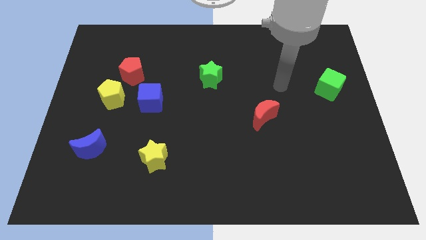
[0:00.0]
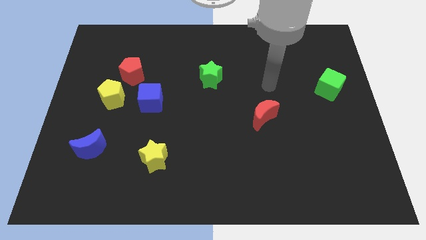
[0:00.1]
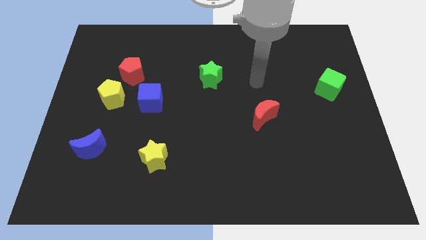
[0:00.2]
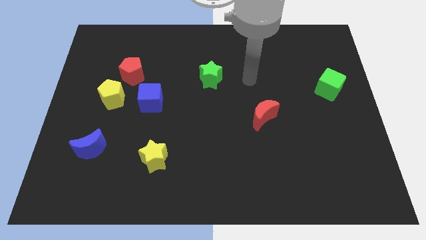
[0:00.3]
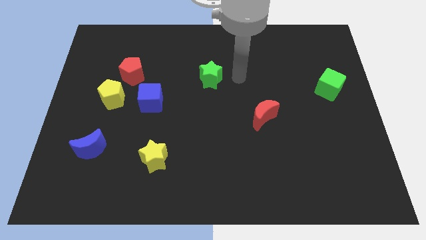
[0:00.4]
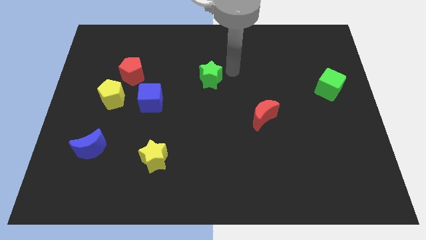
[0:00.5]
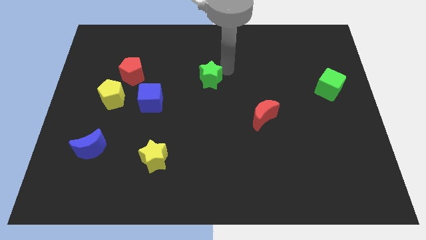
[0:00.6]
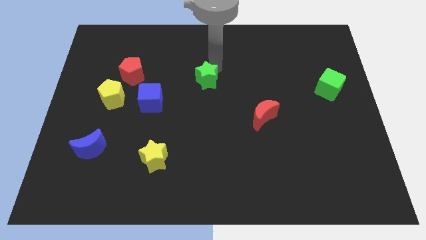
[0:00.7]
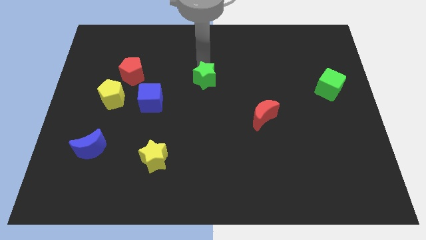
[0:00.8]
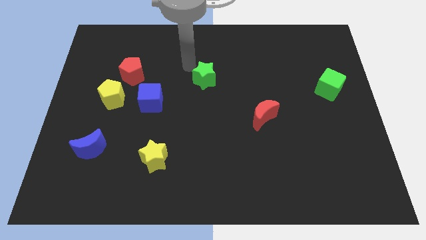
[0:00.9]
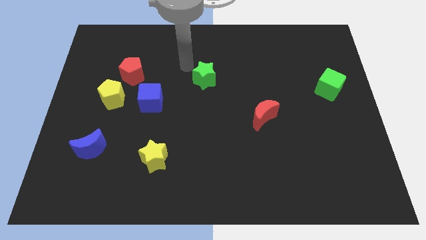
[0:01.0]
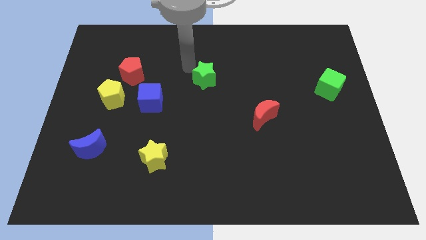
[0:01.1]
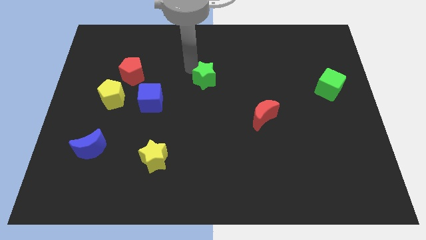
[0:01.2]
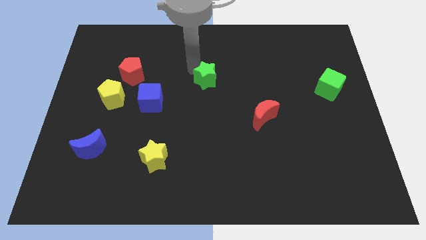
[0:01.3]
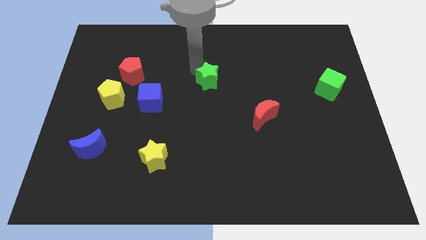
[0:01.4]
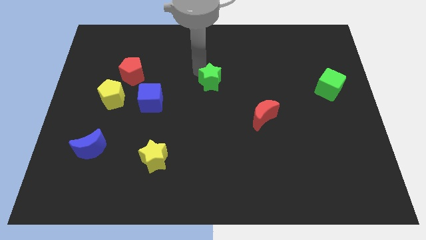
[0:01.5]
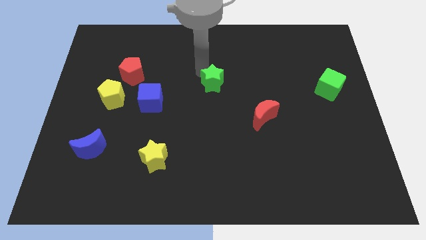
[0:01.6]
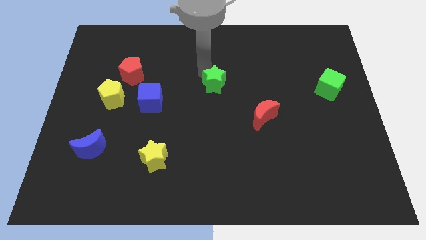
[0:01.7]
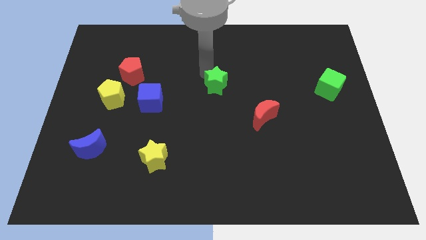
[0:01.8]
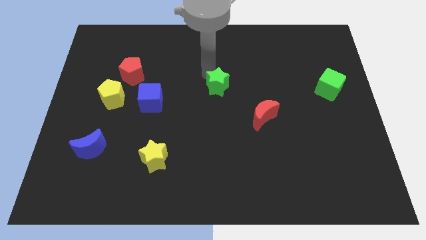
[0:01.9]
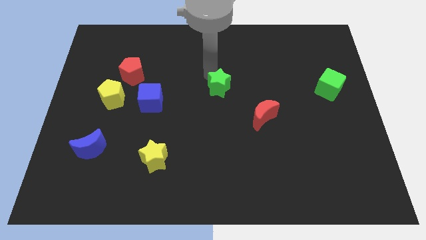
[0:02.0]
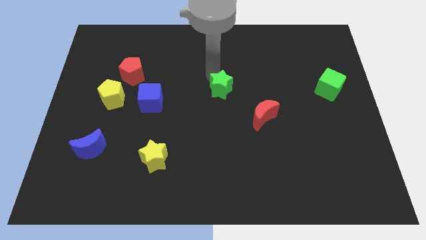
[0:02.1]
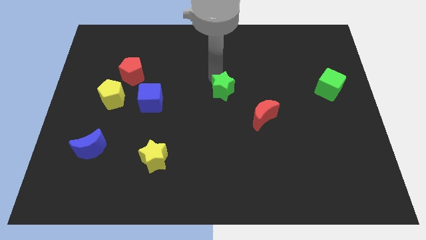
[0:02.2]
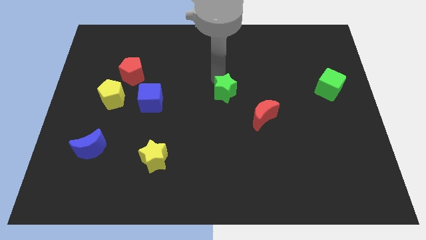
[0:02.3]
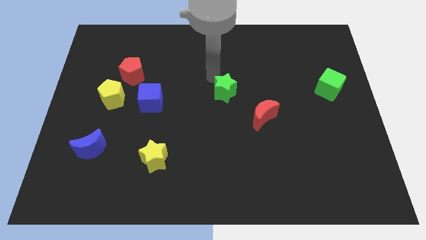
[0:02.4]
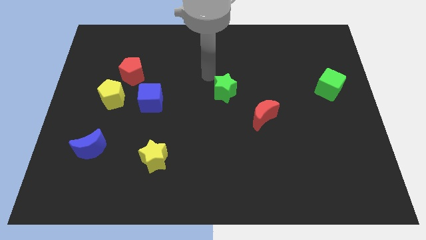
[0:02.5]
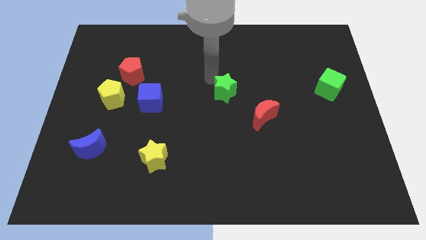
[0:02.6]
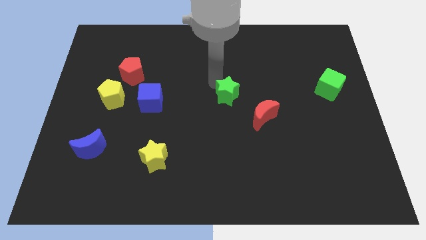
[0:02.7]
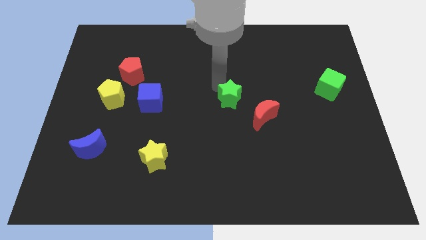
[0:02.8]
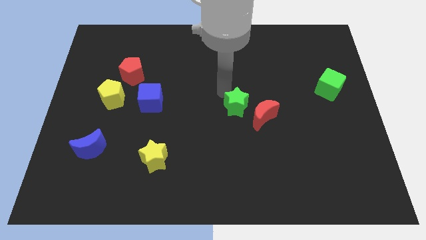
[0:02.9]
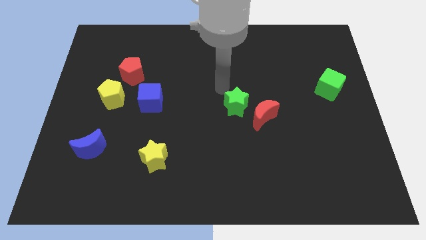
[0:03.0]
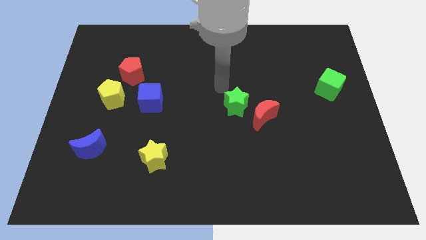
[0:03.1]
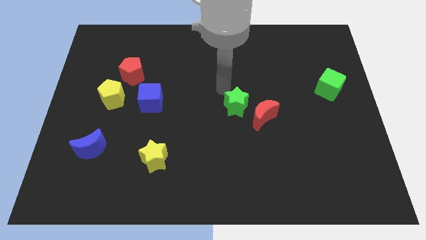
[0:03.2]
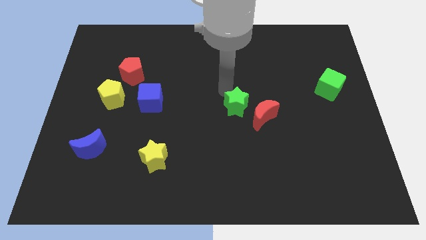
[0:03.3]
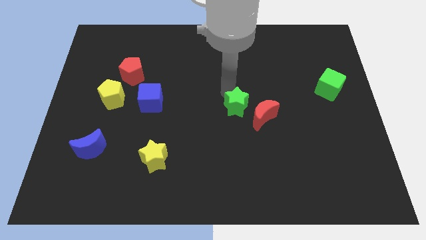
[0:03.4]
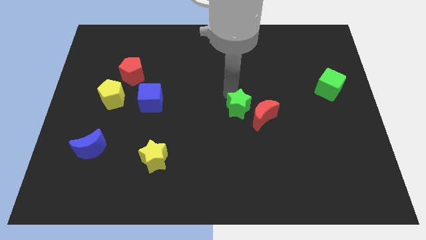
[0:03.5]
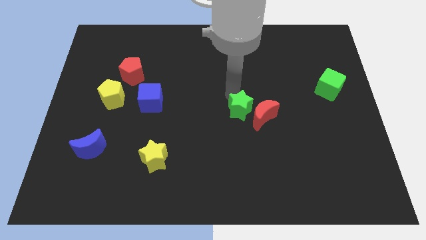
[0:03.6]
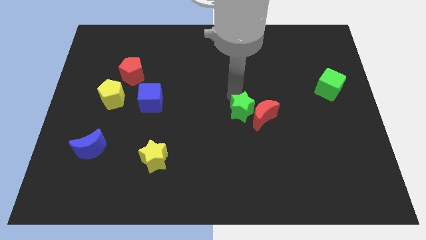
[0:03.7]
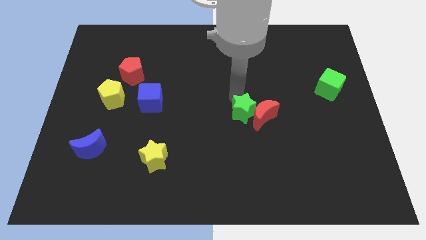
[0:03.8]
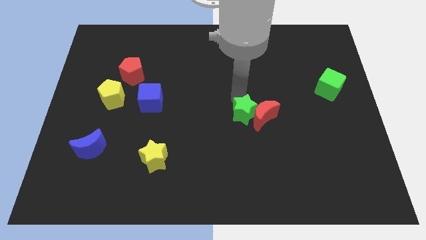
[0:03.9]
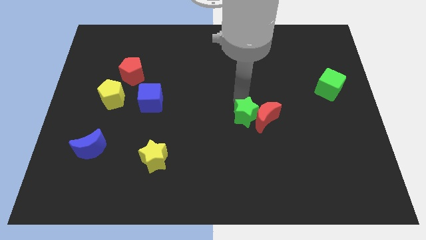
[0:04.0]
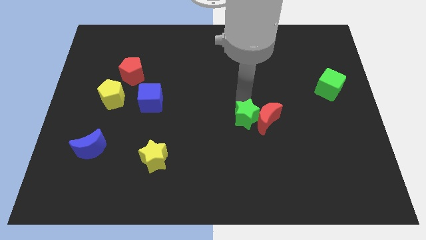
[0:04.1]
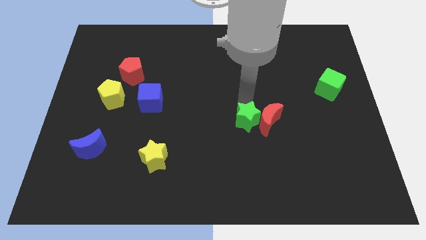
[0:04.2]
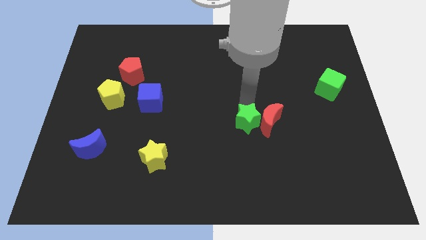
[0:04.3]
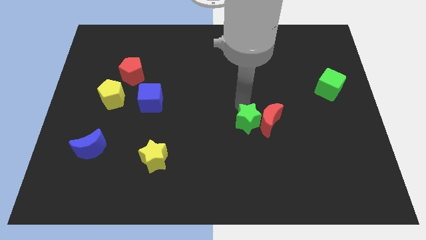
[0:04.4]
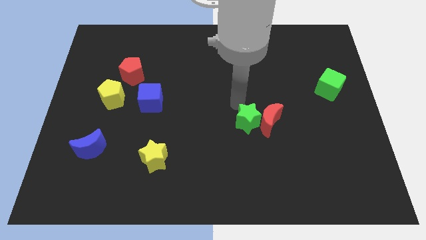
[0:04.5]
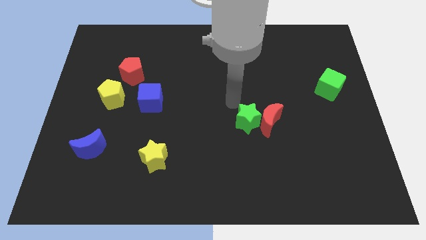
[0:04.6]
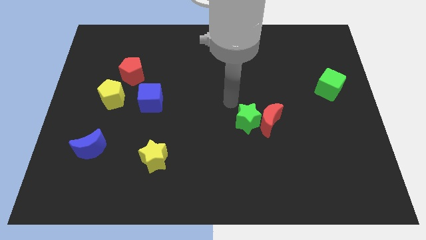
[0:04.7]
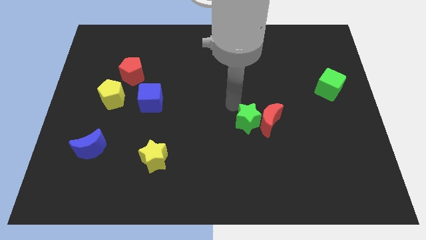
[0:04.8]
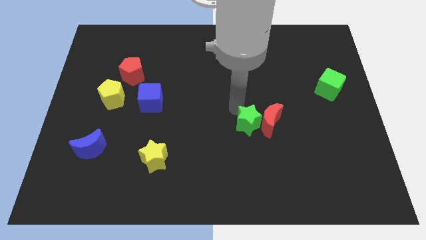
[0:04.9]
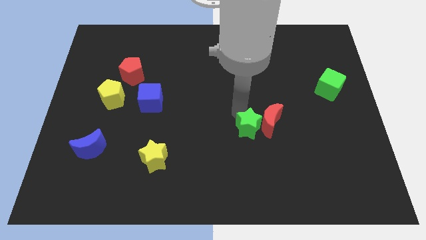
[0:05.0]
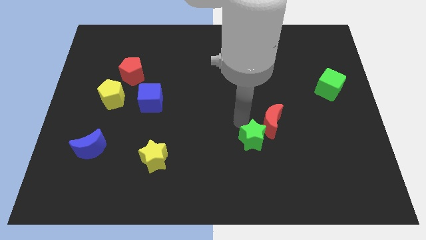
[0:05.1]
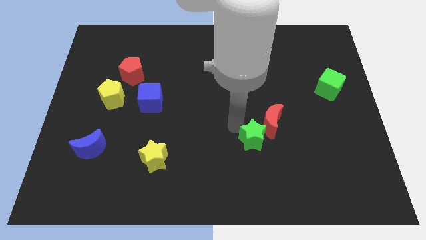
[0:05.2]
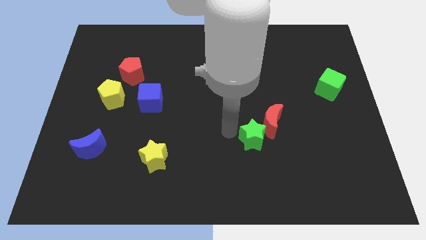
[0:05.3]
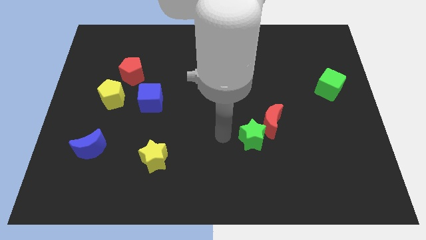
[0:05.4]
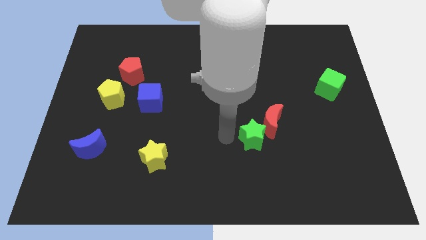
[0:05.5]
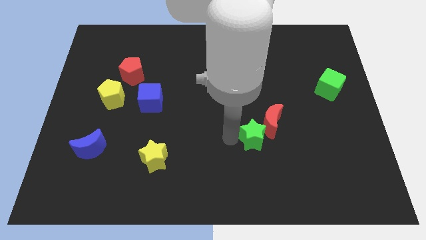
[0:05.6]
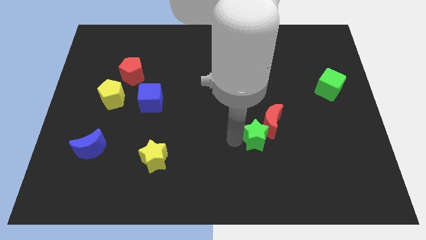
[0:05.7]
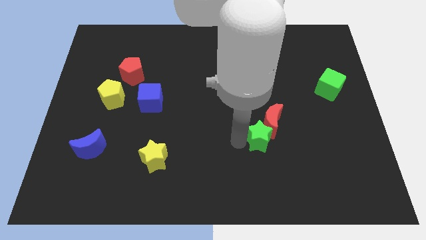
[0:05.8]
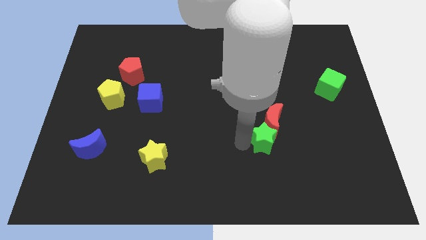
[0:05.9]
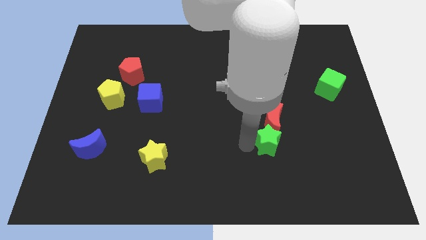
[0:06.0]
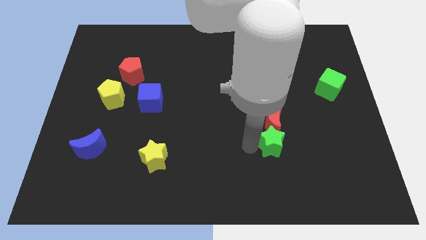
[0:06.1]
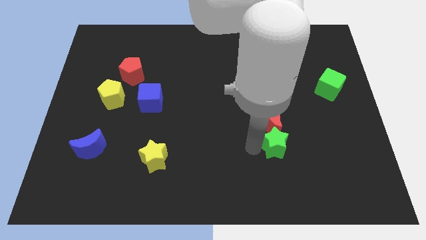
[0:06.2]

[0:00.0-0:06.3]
move the green star to the bottom right side of the red moon

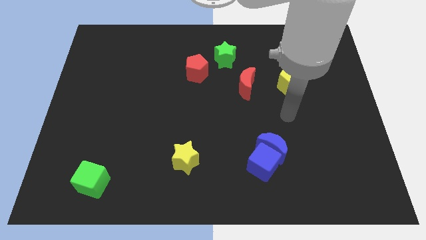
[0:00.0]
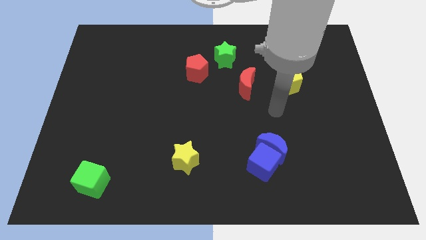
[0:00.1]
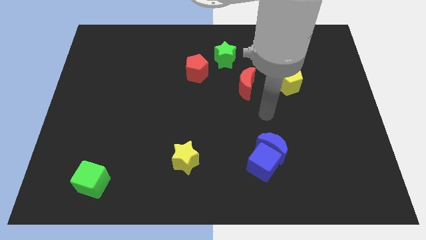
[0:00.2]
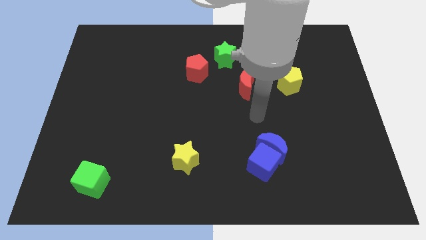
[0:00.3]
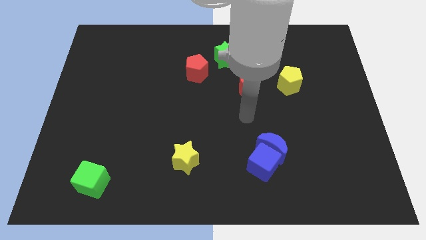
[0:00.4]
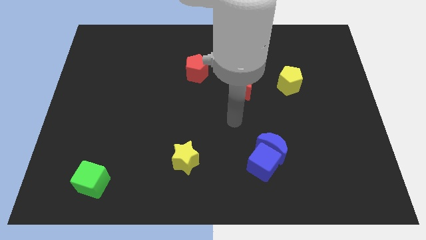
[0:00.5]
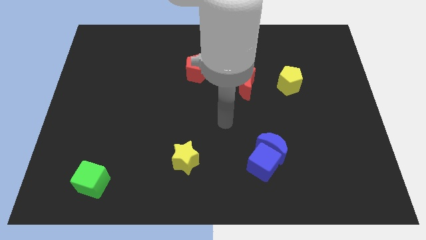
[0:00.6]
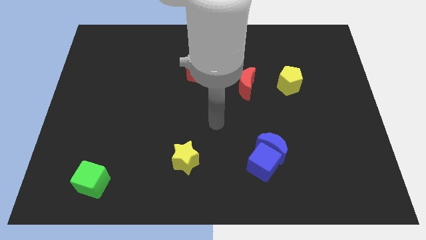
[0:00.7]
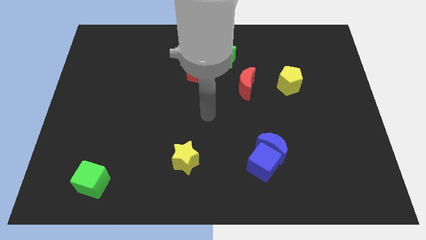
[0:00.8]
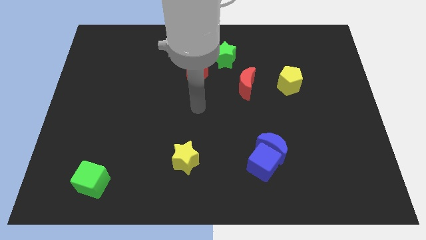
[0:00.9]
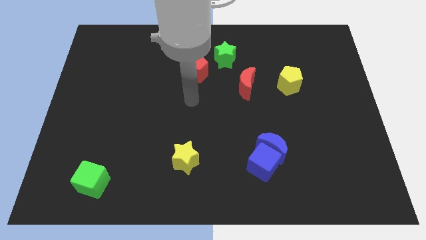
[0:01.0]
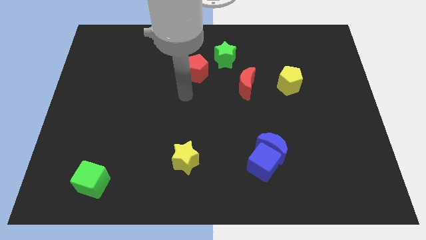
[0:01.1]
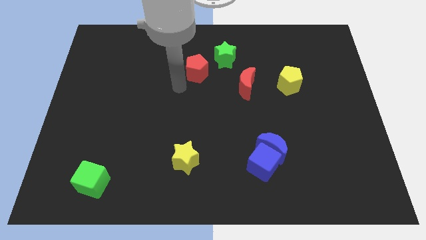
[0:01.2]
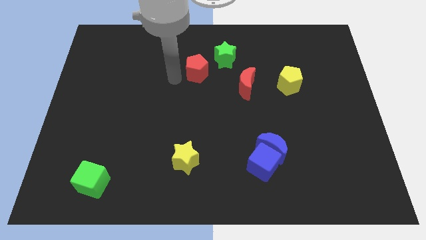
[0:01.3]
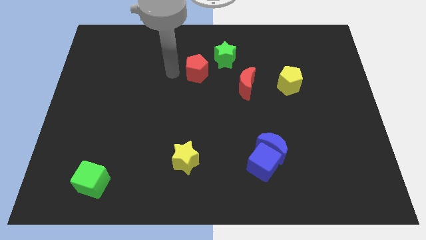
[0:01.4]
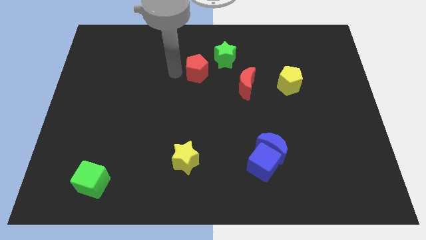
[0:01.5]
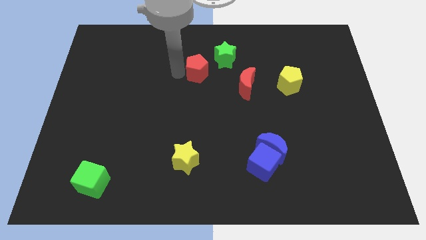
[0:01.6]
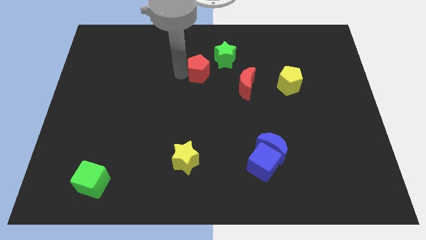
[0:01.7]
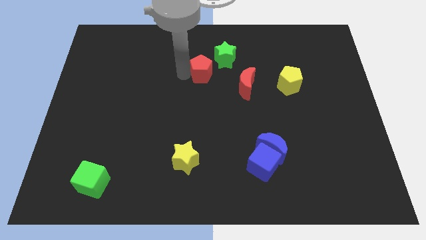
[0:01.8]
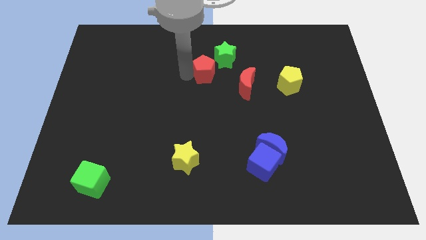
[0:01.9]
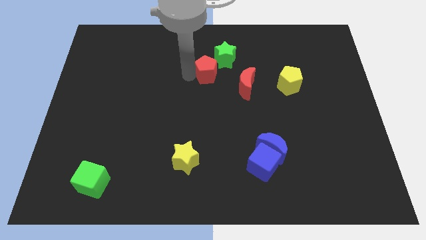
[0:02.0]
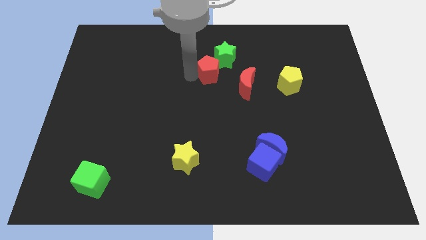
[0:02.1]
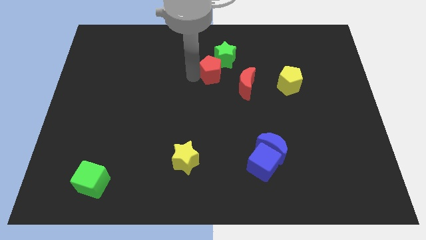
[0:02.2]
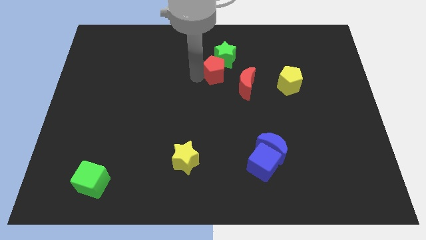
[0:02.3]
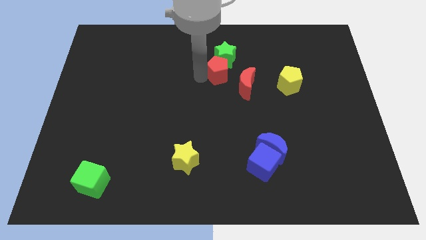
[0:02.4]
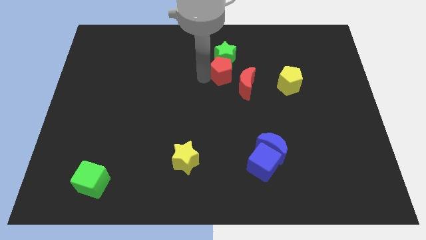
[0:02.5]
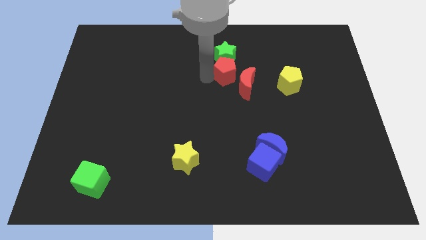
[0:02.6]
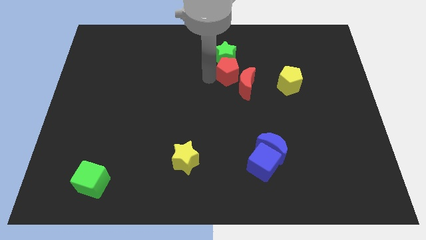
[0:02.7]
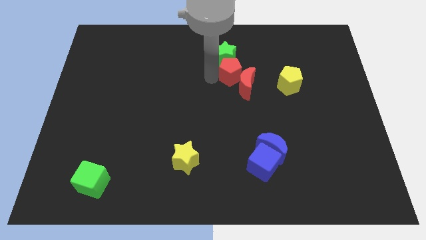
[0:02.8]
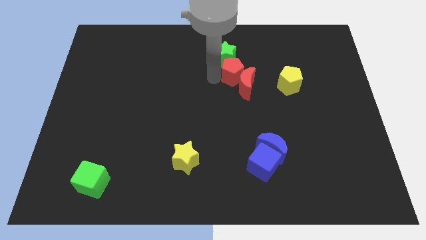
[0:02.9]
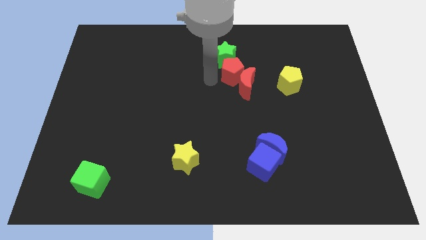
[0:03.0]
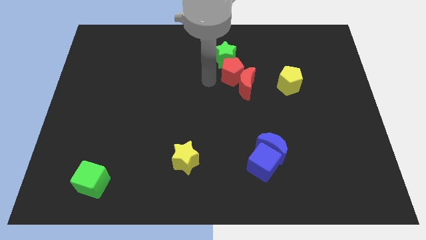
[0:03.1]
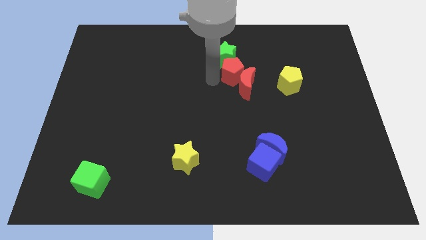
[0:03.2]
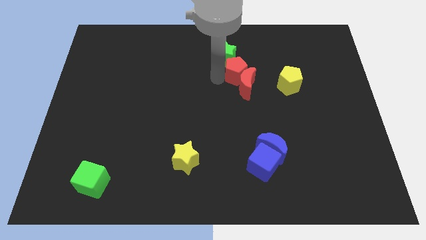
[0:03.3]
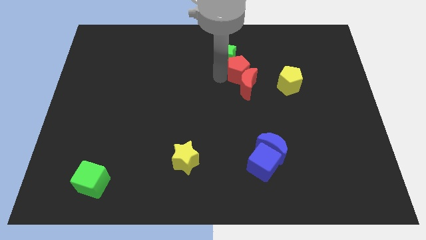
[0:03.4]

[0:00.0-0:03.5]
slide the red pentagon to the top right side of the red moon
